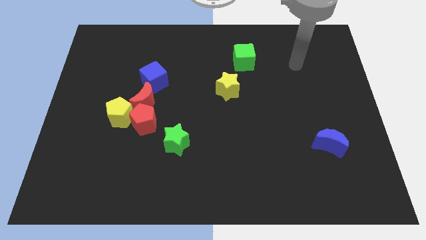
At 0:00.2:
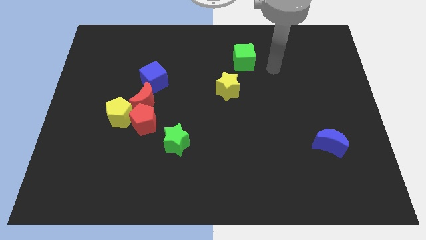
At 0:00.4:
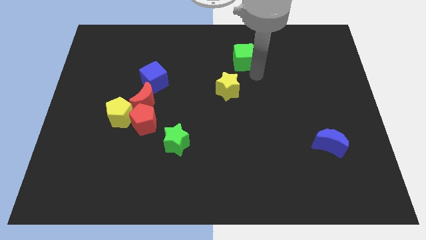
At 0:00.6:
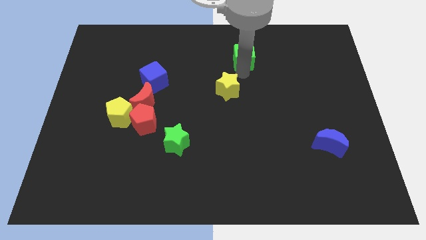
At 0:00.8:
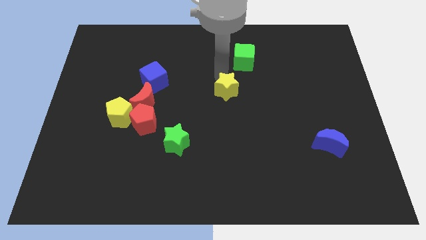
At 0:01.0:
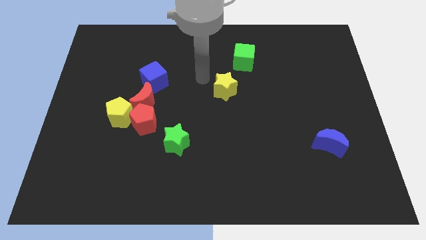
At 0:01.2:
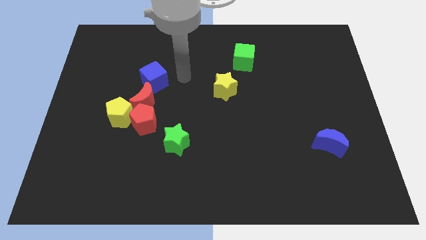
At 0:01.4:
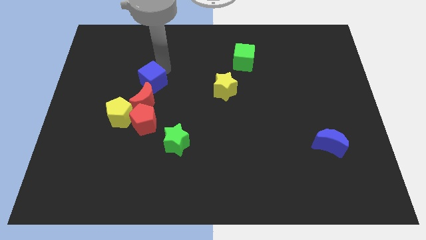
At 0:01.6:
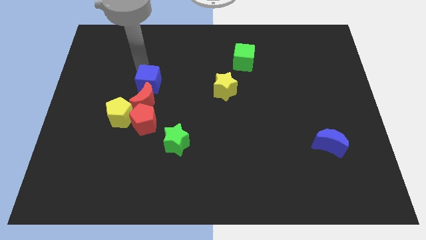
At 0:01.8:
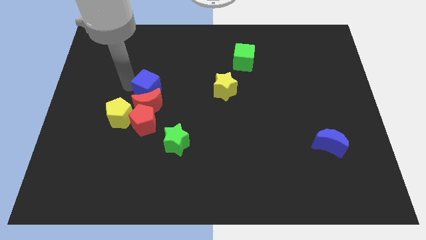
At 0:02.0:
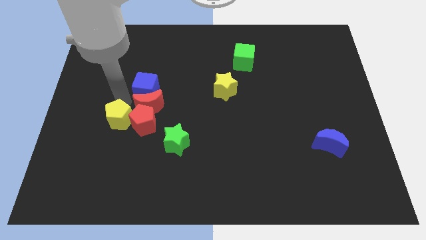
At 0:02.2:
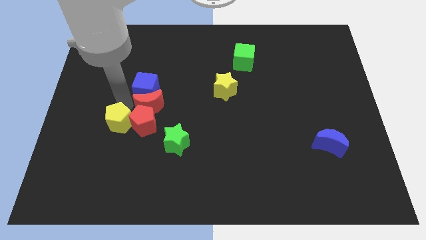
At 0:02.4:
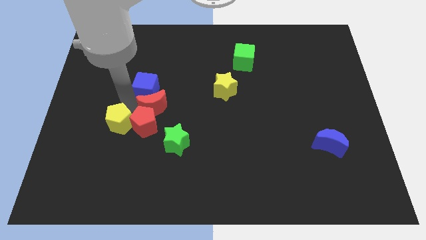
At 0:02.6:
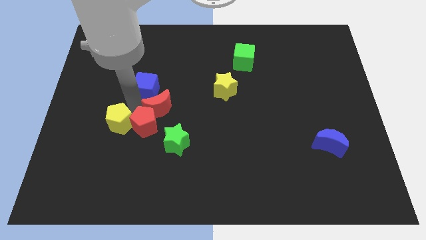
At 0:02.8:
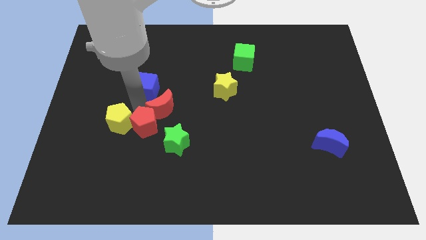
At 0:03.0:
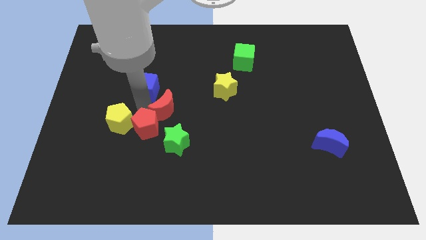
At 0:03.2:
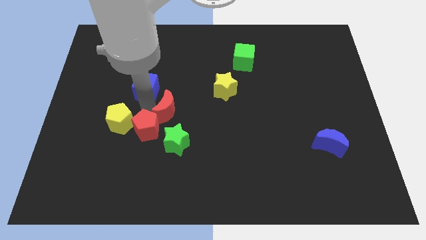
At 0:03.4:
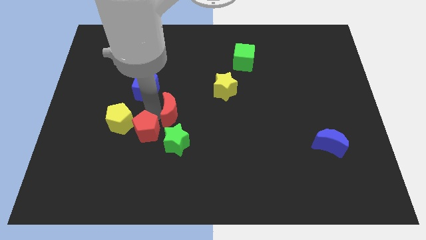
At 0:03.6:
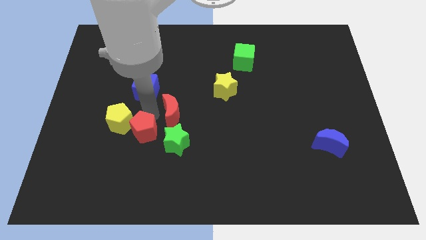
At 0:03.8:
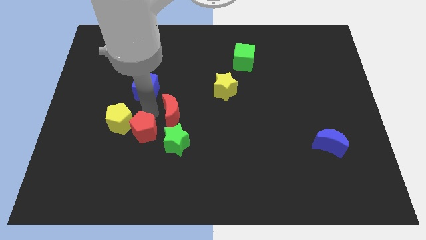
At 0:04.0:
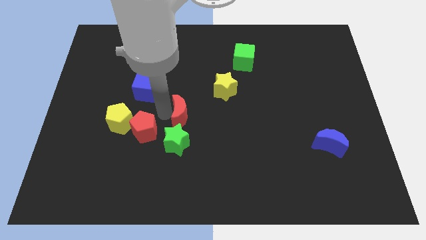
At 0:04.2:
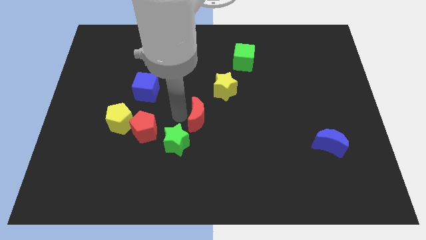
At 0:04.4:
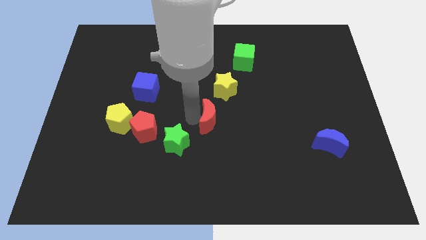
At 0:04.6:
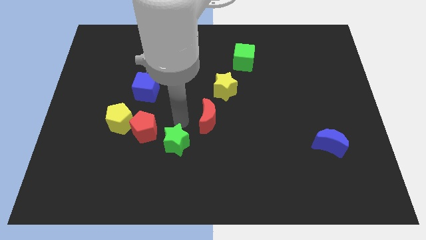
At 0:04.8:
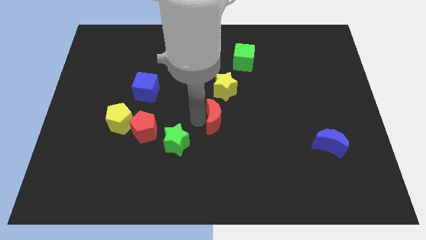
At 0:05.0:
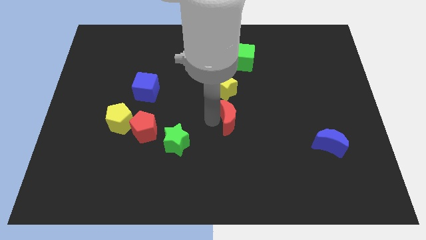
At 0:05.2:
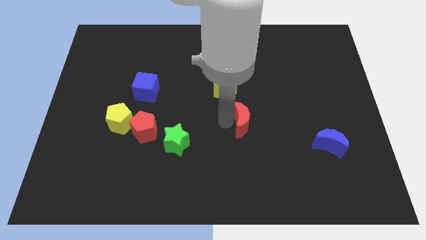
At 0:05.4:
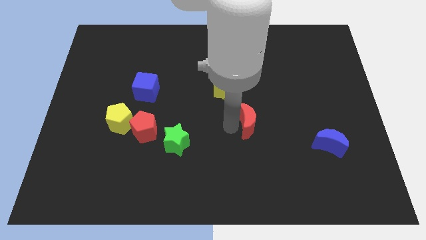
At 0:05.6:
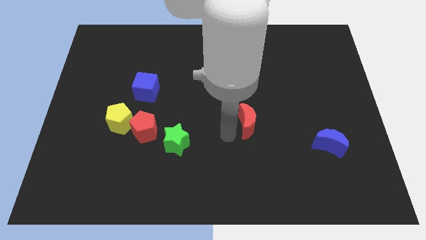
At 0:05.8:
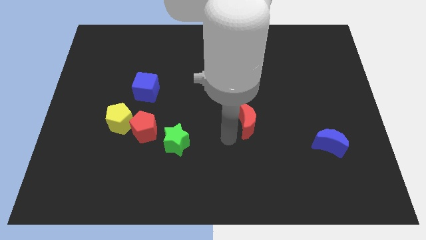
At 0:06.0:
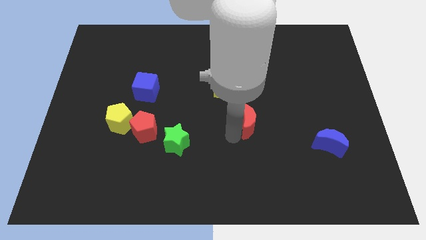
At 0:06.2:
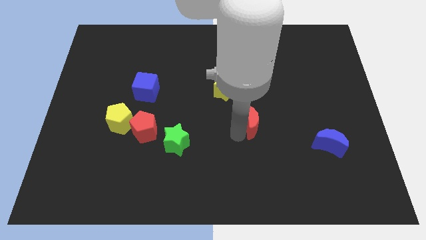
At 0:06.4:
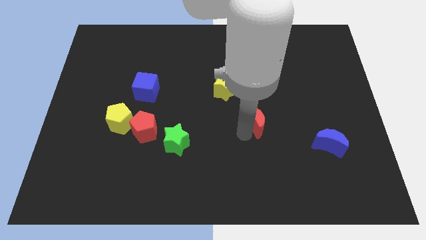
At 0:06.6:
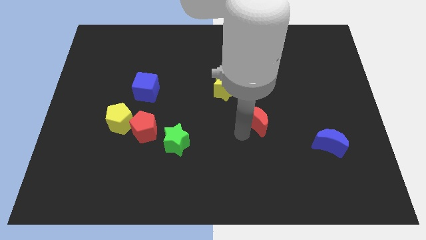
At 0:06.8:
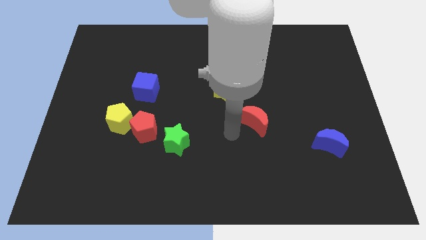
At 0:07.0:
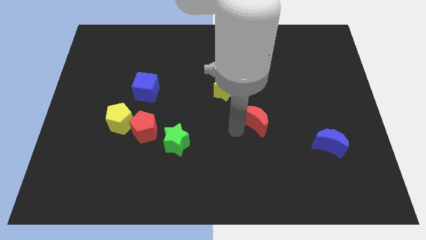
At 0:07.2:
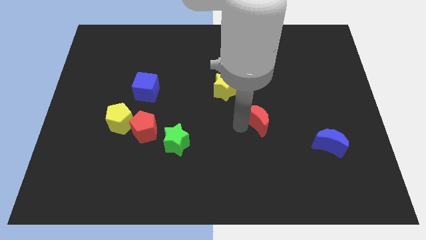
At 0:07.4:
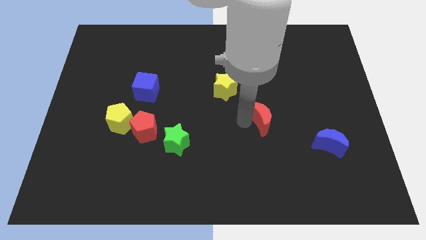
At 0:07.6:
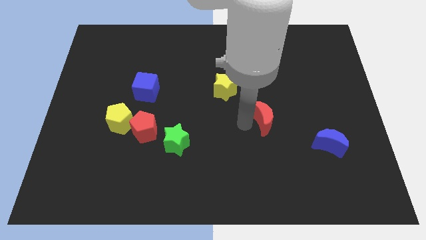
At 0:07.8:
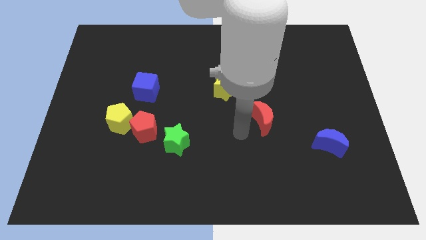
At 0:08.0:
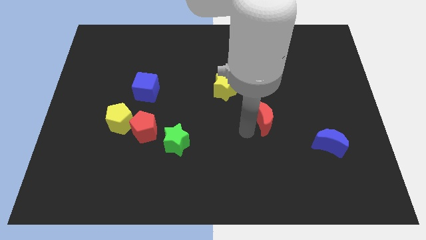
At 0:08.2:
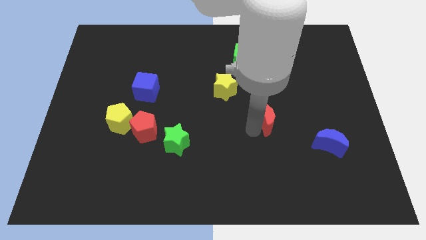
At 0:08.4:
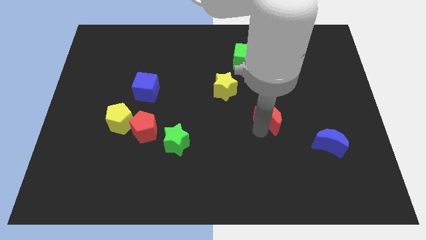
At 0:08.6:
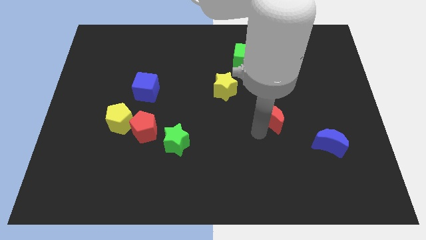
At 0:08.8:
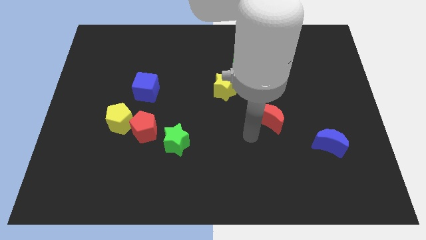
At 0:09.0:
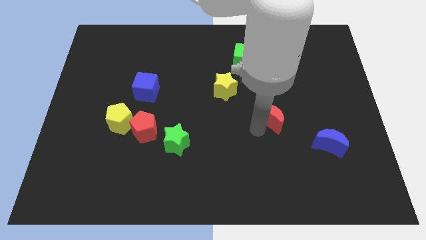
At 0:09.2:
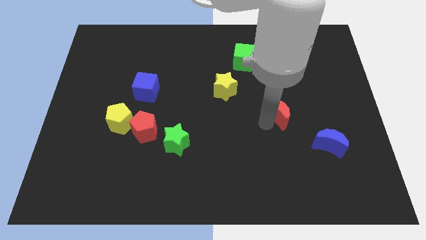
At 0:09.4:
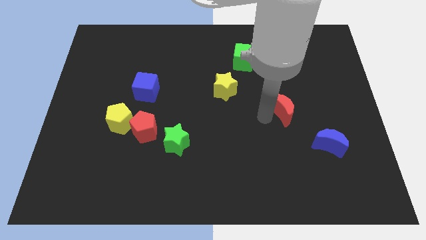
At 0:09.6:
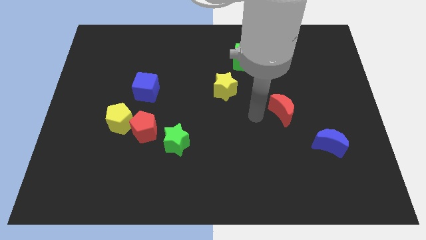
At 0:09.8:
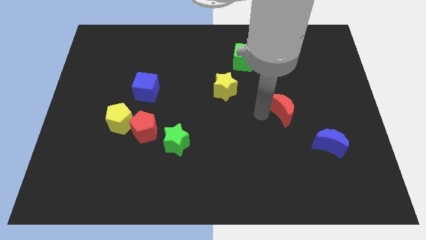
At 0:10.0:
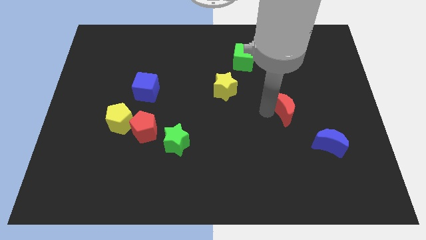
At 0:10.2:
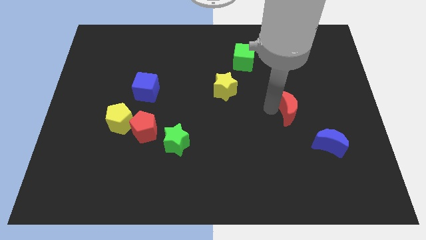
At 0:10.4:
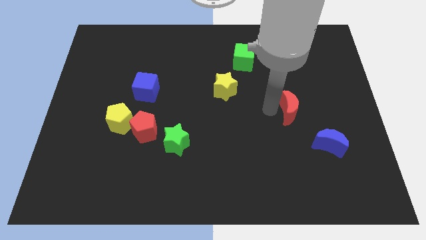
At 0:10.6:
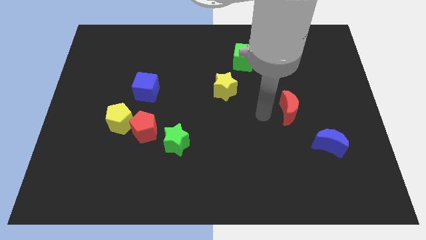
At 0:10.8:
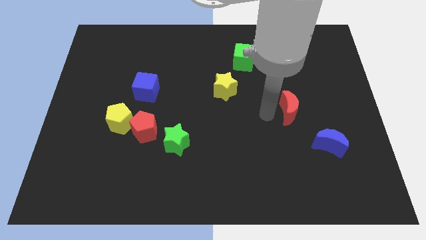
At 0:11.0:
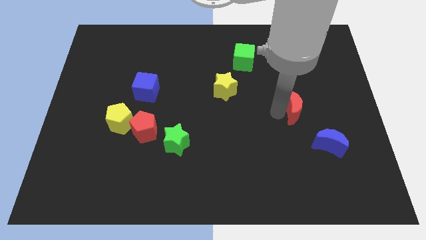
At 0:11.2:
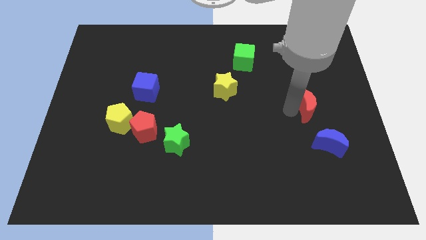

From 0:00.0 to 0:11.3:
move the red moon to the top side of the blue moon

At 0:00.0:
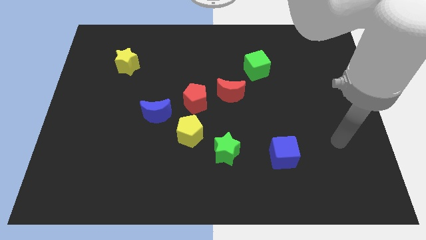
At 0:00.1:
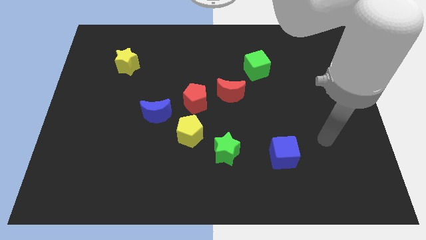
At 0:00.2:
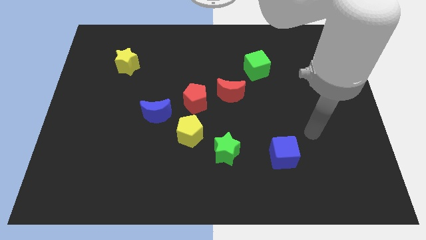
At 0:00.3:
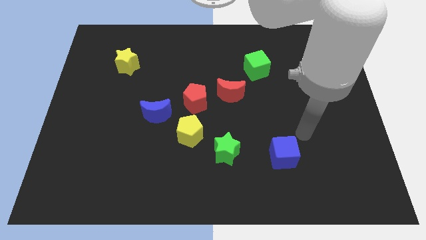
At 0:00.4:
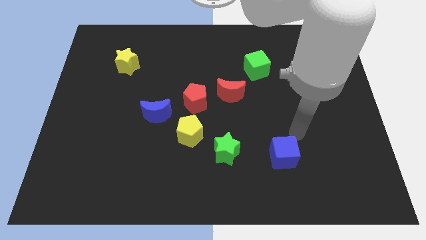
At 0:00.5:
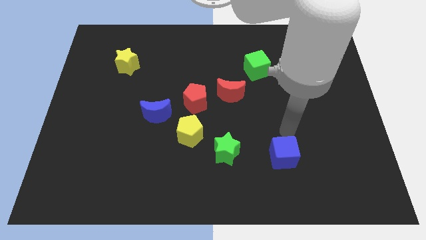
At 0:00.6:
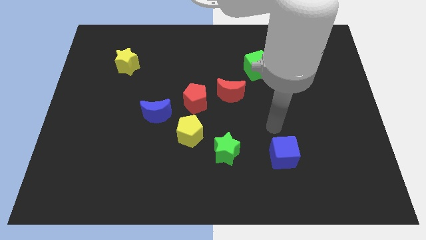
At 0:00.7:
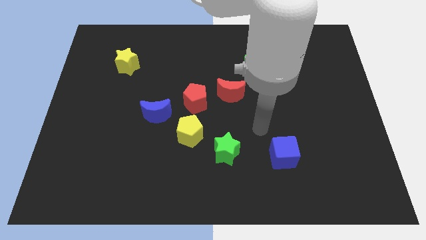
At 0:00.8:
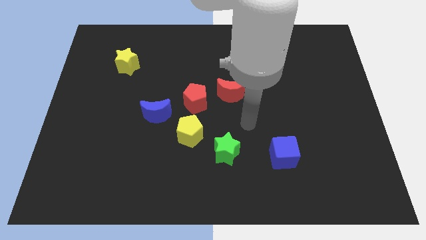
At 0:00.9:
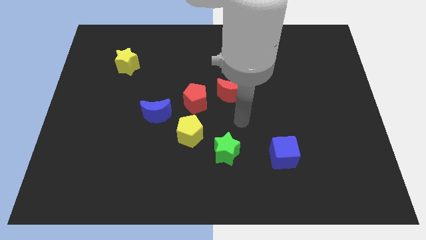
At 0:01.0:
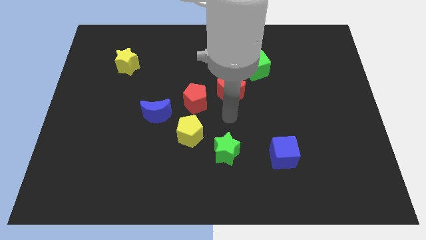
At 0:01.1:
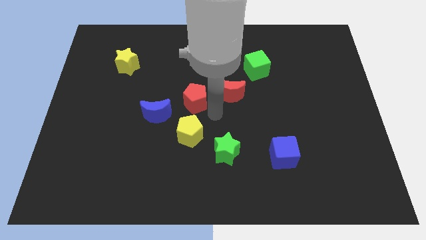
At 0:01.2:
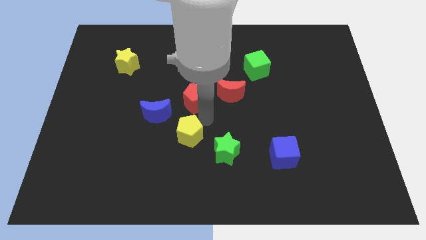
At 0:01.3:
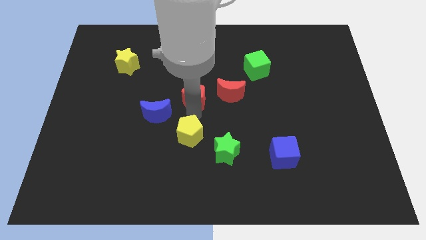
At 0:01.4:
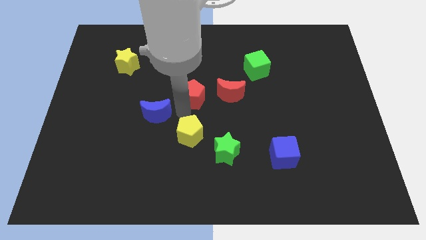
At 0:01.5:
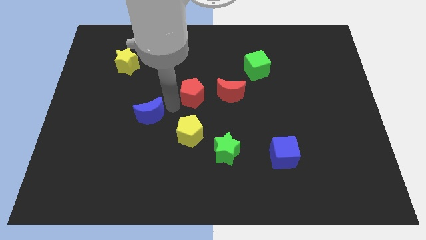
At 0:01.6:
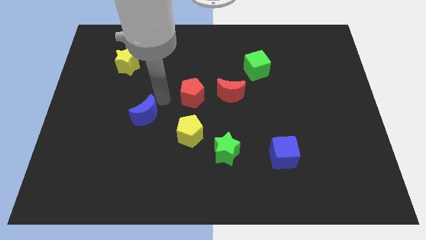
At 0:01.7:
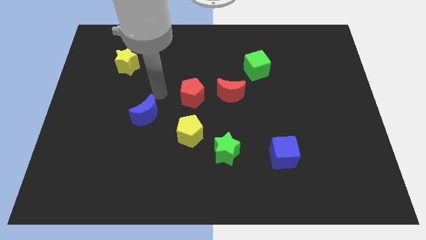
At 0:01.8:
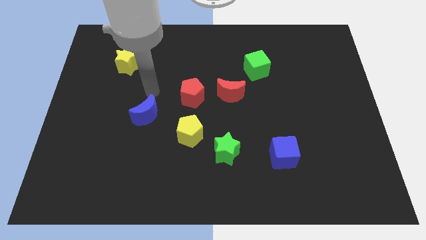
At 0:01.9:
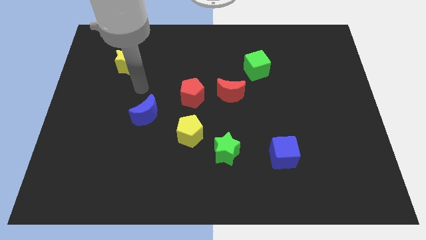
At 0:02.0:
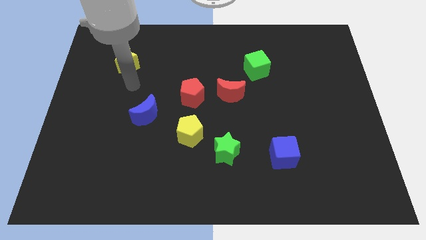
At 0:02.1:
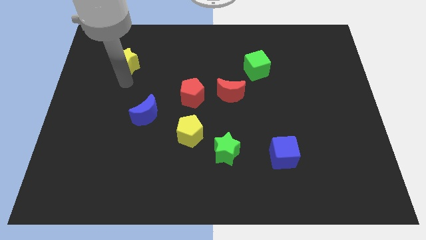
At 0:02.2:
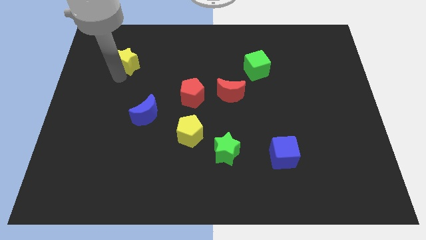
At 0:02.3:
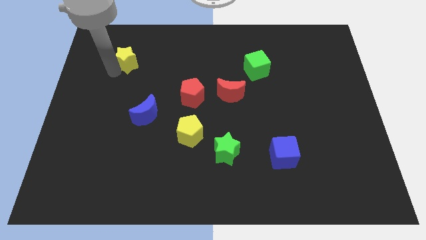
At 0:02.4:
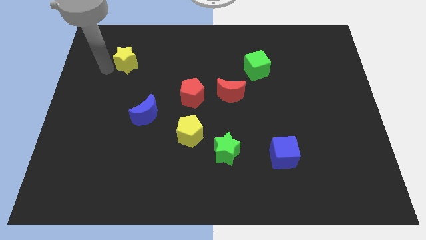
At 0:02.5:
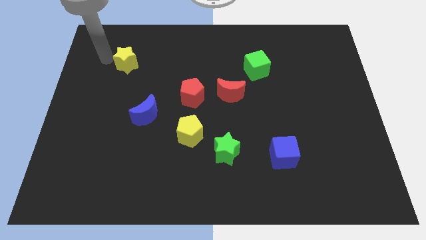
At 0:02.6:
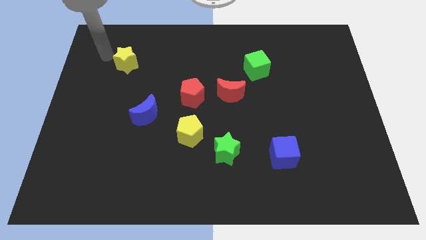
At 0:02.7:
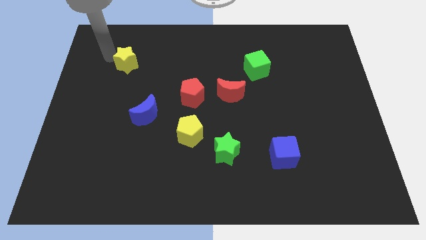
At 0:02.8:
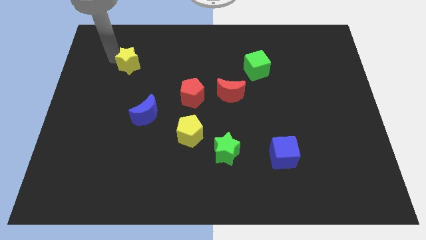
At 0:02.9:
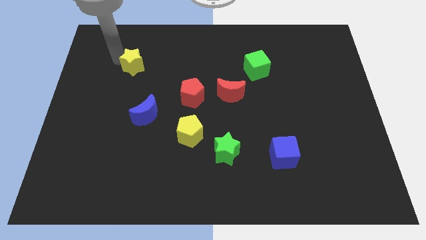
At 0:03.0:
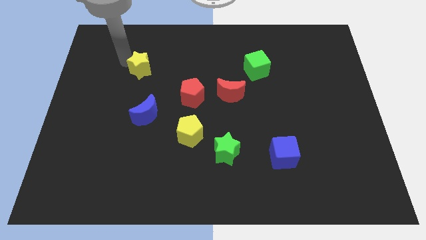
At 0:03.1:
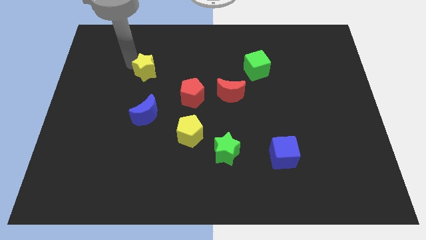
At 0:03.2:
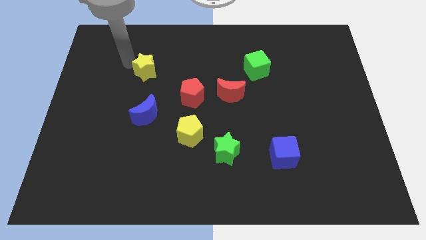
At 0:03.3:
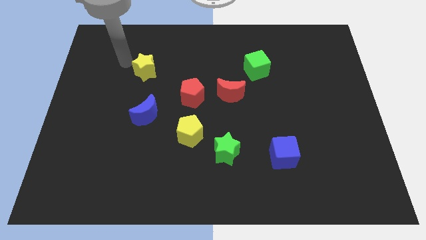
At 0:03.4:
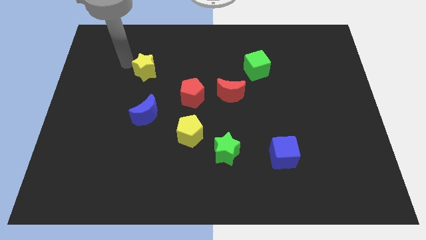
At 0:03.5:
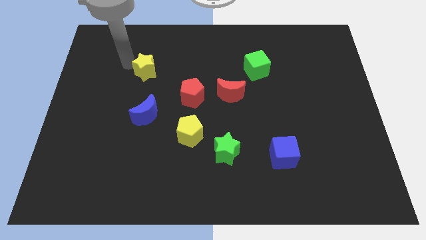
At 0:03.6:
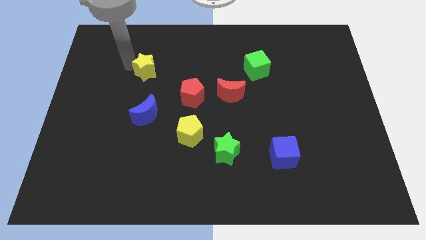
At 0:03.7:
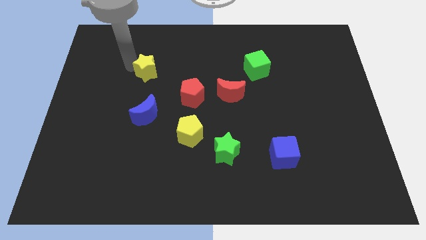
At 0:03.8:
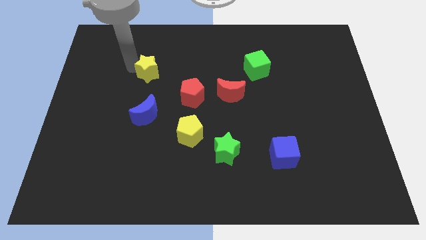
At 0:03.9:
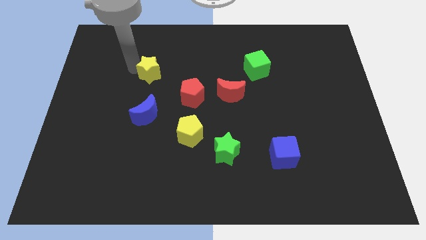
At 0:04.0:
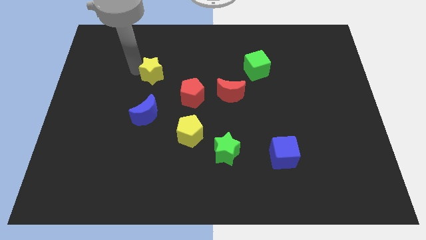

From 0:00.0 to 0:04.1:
push the yellow star to the top left side of the red pentagon
